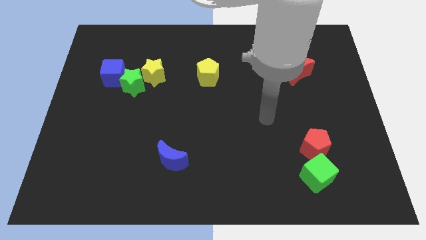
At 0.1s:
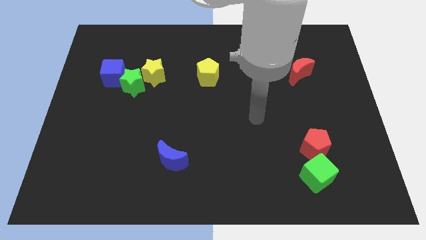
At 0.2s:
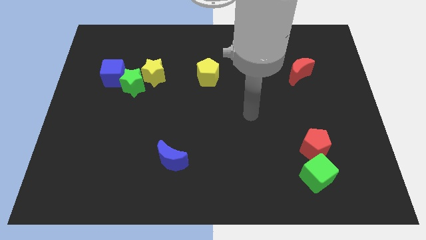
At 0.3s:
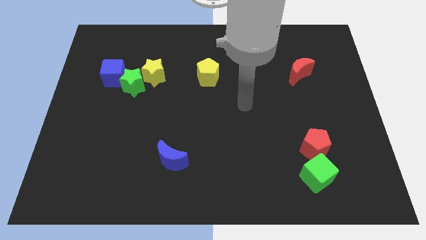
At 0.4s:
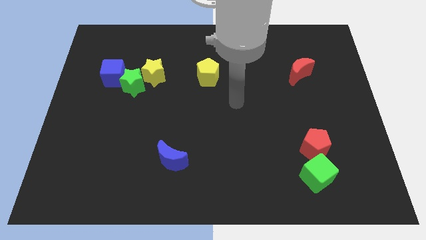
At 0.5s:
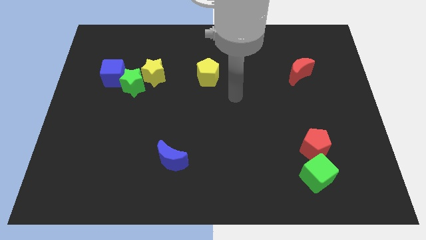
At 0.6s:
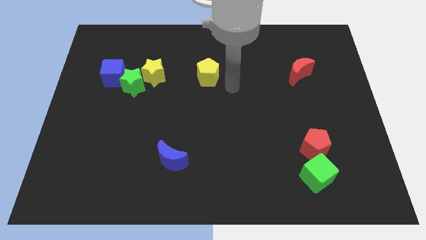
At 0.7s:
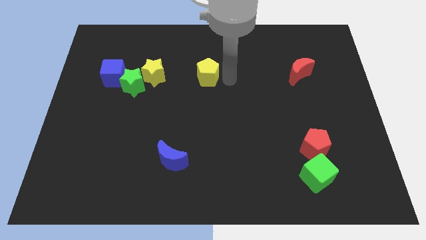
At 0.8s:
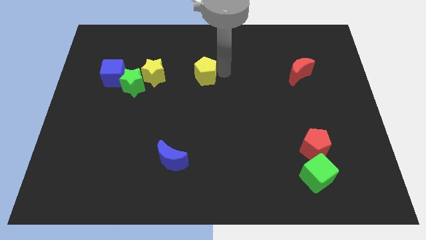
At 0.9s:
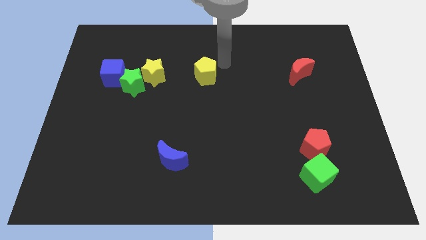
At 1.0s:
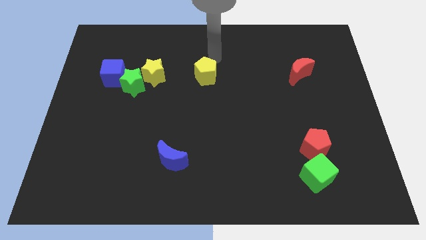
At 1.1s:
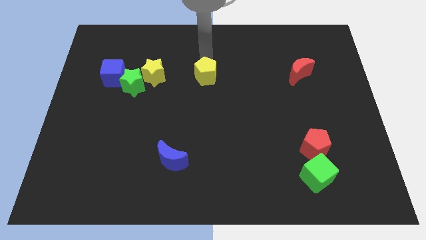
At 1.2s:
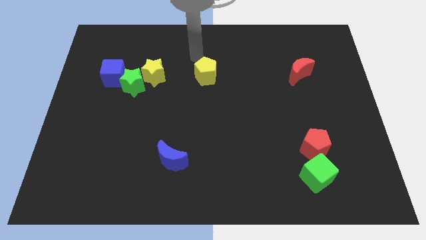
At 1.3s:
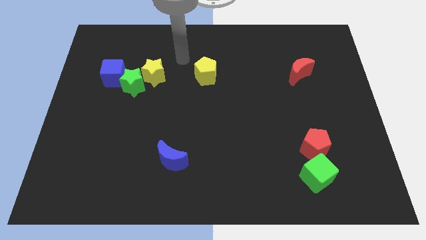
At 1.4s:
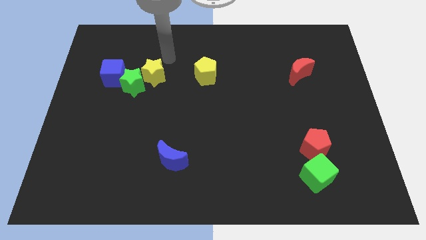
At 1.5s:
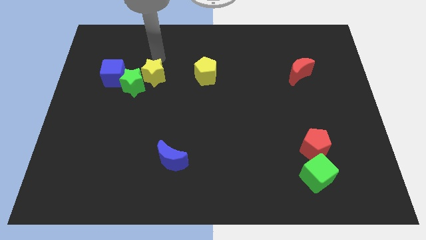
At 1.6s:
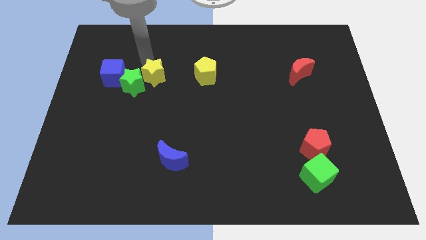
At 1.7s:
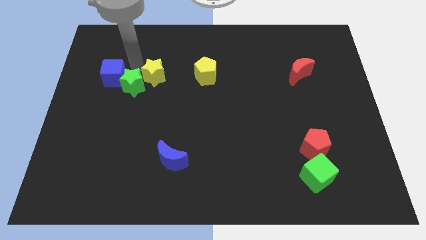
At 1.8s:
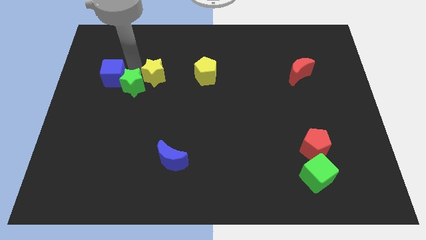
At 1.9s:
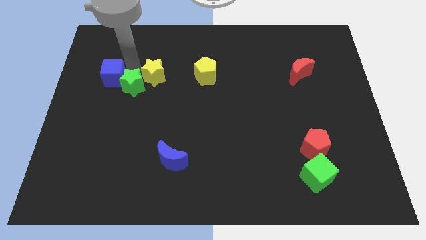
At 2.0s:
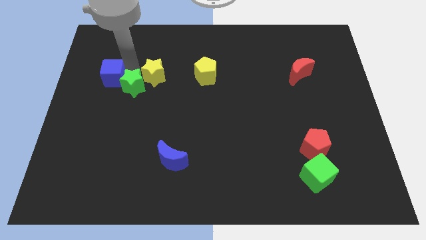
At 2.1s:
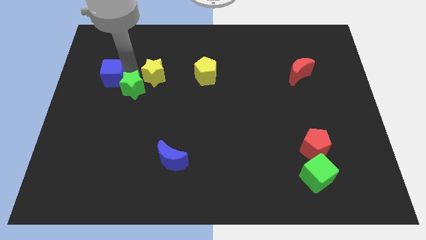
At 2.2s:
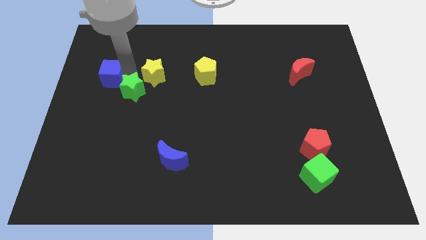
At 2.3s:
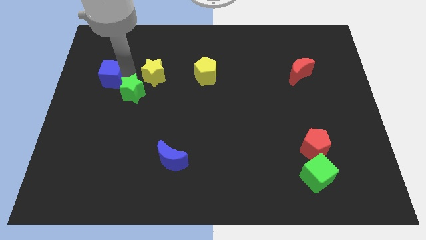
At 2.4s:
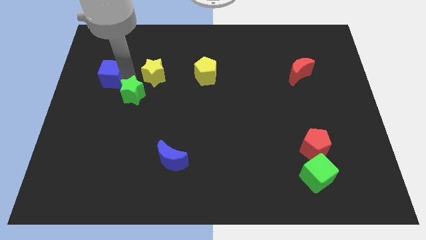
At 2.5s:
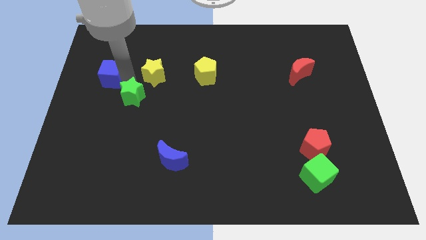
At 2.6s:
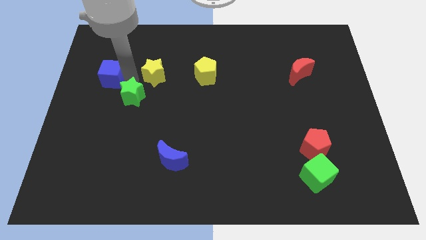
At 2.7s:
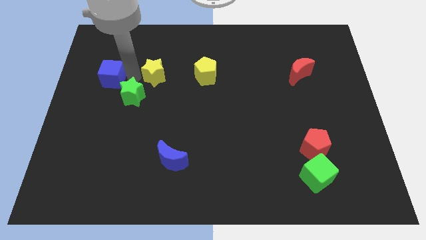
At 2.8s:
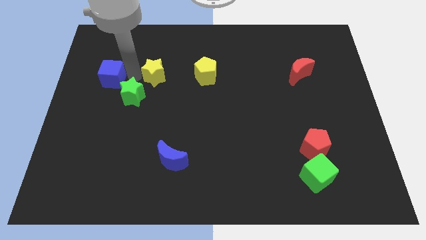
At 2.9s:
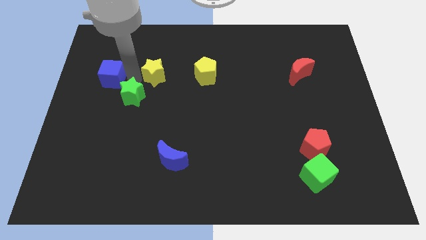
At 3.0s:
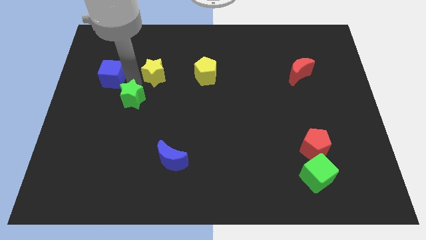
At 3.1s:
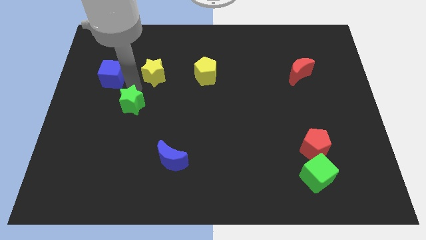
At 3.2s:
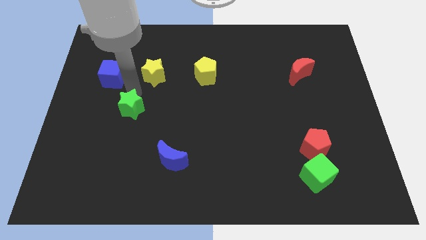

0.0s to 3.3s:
move the green star away from the yellow star and blue cube

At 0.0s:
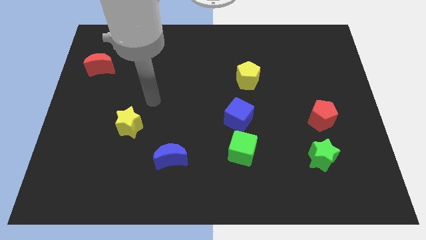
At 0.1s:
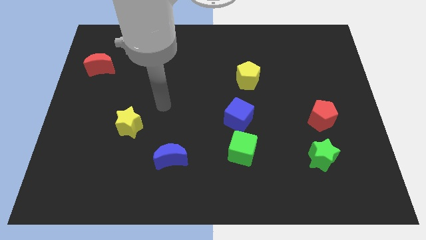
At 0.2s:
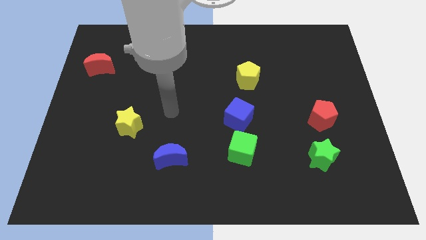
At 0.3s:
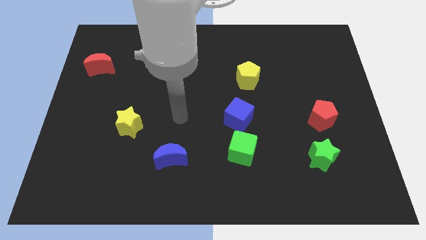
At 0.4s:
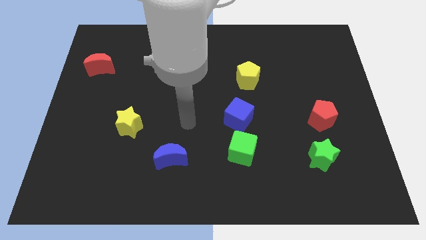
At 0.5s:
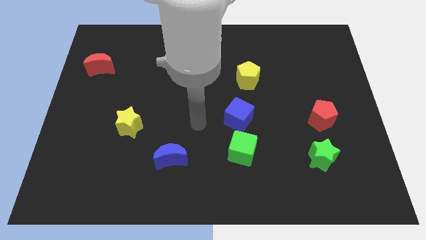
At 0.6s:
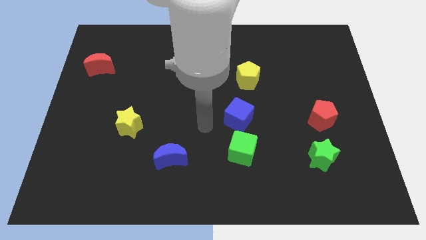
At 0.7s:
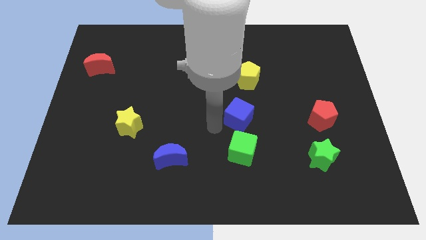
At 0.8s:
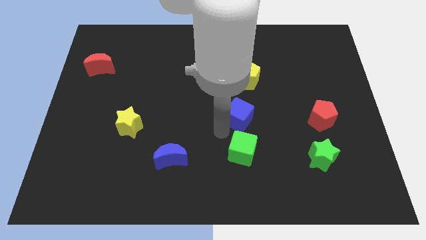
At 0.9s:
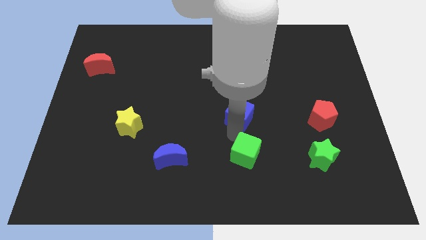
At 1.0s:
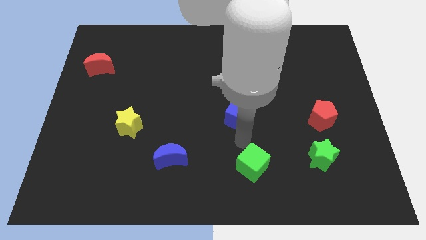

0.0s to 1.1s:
move the blue cube away from the green cube

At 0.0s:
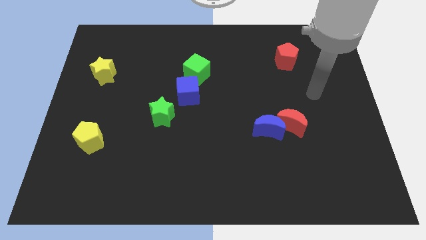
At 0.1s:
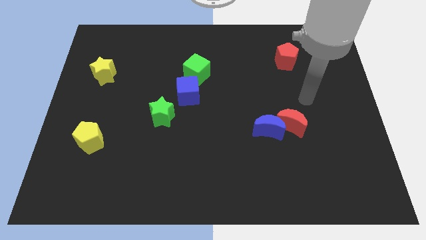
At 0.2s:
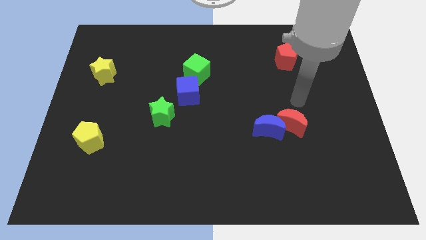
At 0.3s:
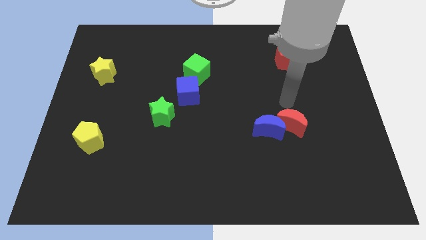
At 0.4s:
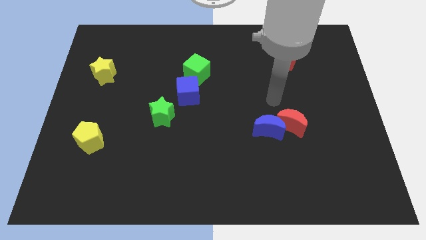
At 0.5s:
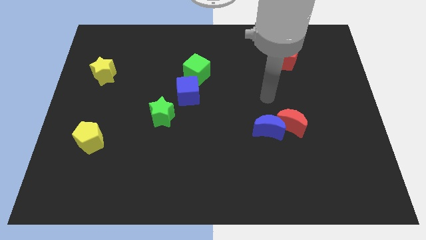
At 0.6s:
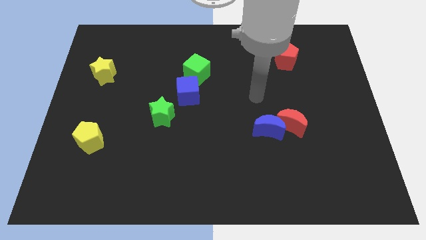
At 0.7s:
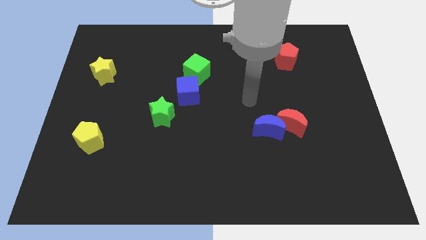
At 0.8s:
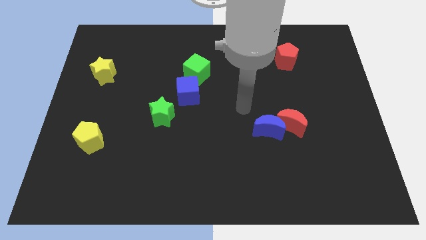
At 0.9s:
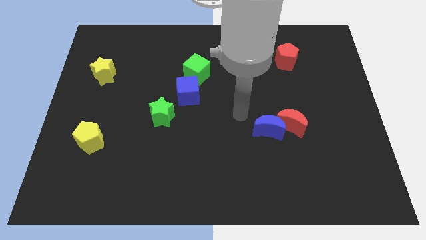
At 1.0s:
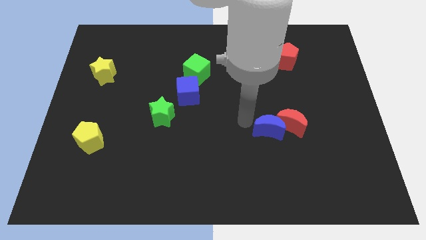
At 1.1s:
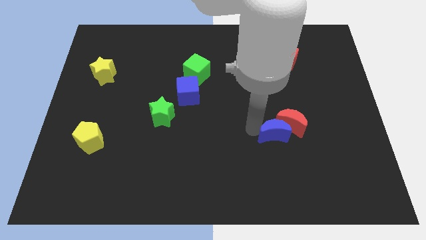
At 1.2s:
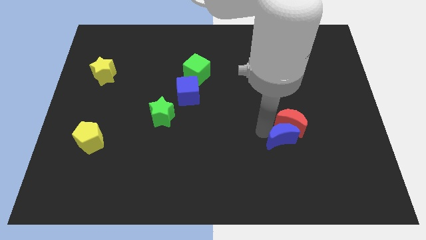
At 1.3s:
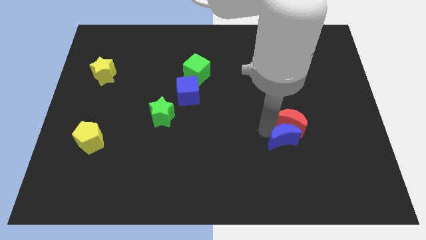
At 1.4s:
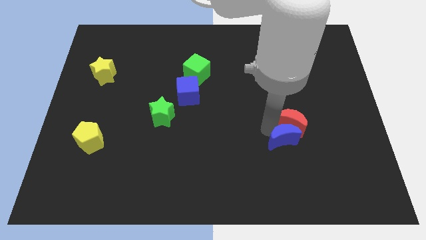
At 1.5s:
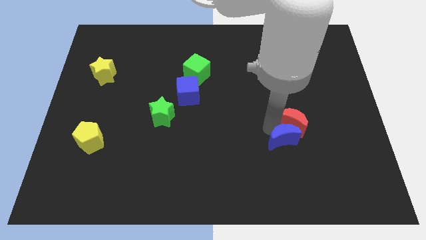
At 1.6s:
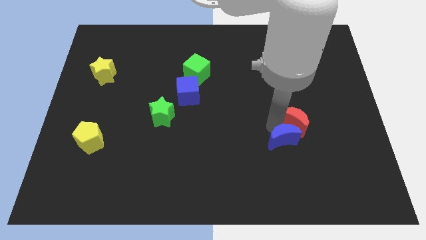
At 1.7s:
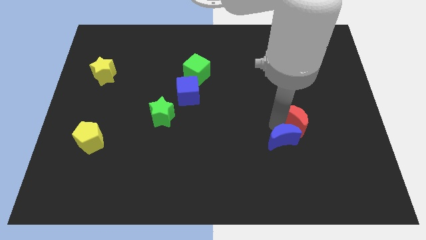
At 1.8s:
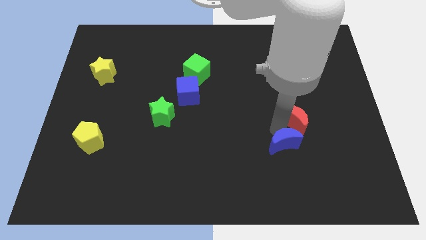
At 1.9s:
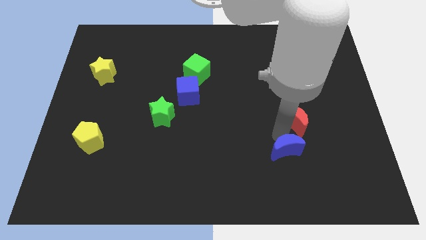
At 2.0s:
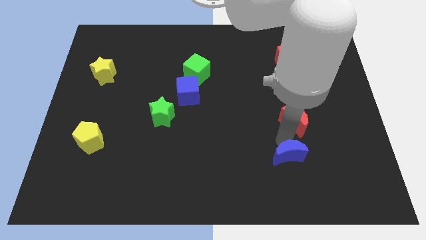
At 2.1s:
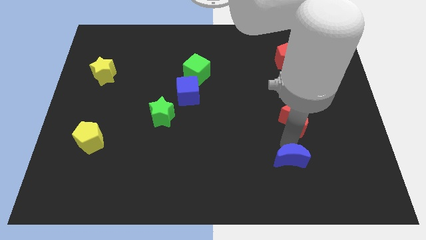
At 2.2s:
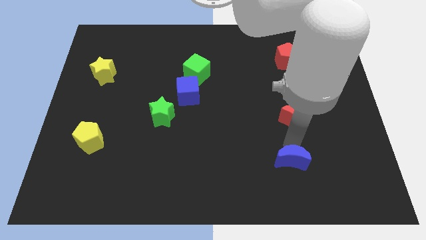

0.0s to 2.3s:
move the red moon away from the blue moon

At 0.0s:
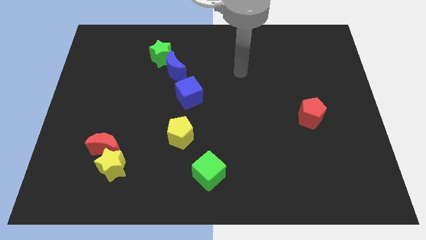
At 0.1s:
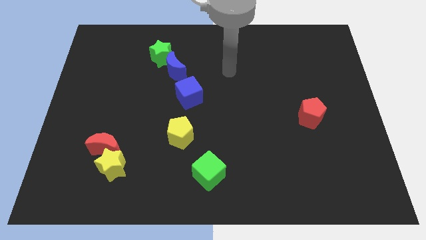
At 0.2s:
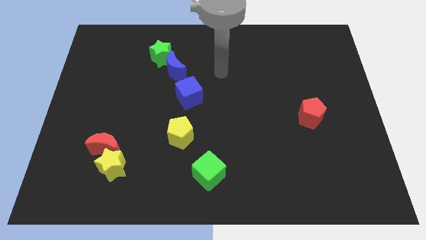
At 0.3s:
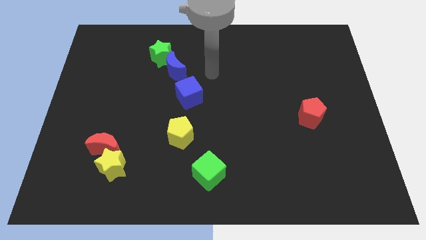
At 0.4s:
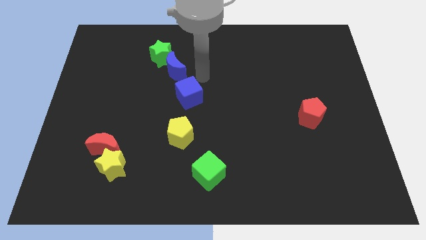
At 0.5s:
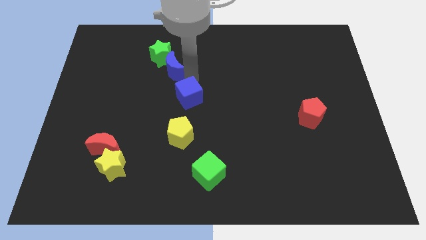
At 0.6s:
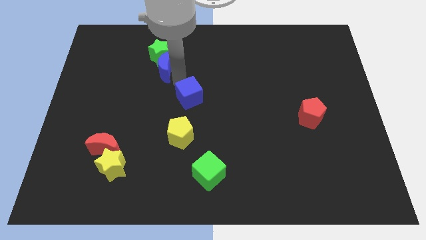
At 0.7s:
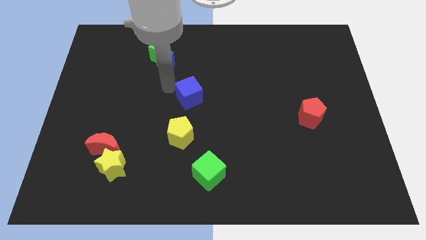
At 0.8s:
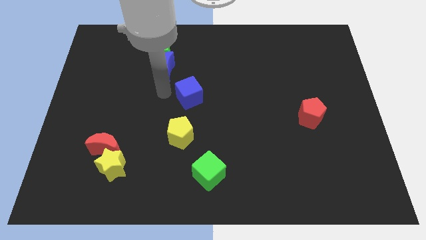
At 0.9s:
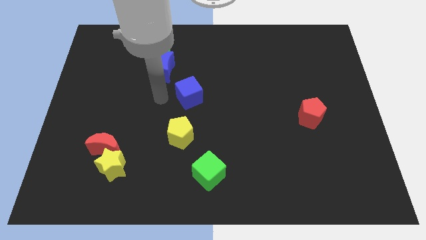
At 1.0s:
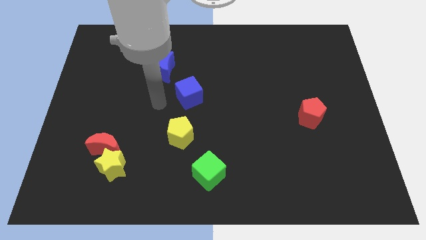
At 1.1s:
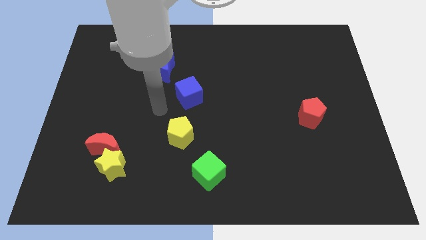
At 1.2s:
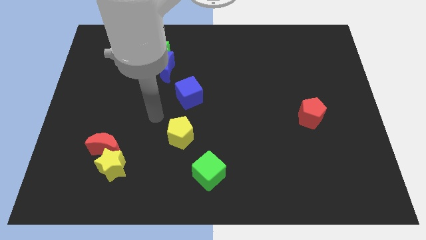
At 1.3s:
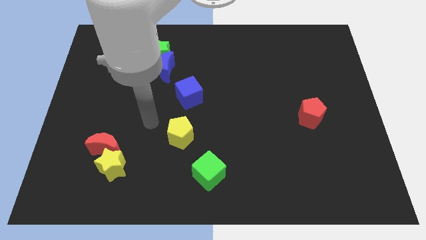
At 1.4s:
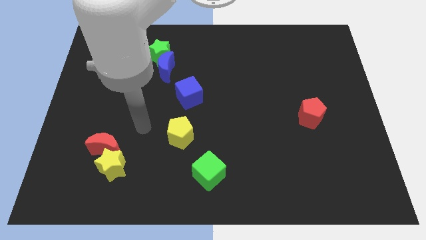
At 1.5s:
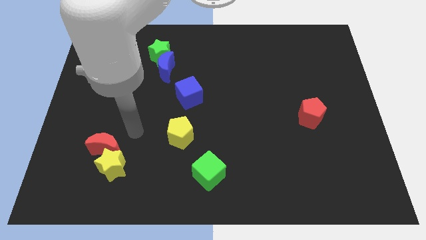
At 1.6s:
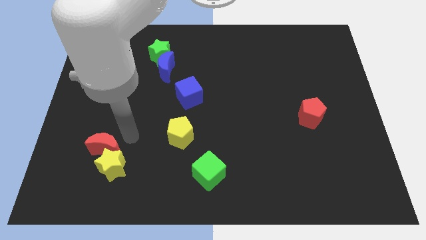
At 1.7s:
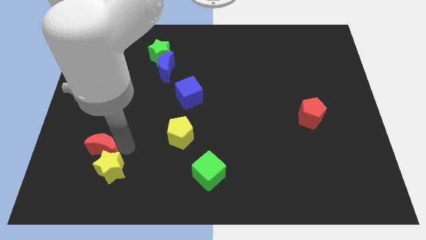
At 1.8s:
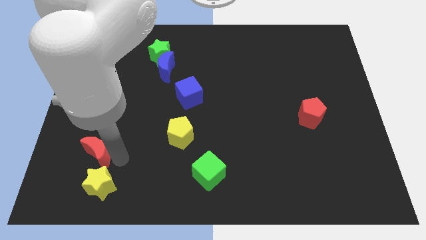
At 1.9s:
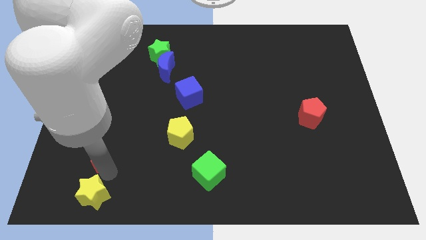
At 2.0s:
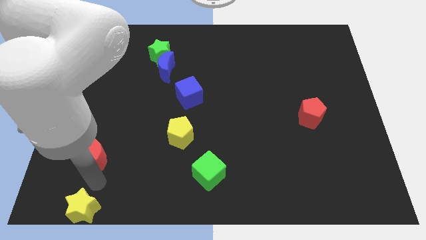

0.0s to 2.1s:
separate the red moon from the yellow star

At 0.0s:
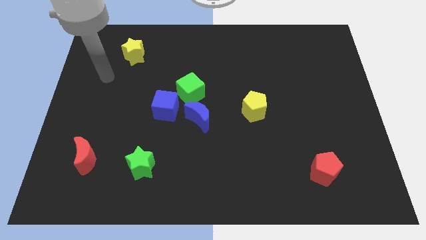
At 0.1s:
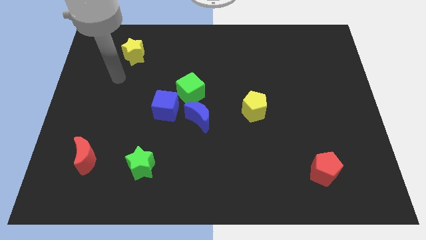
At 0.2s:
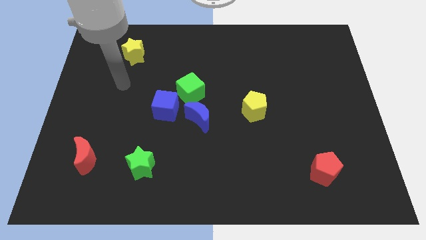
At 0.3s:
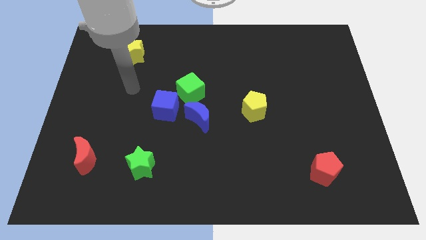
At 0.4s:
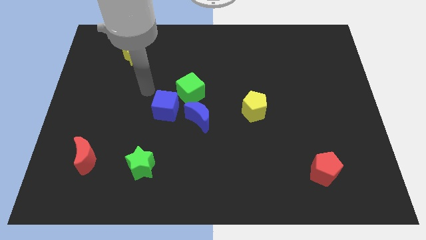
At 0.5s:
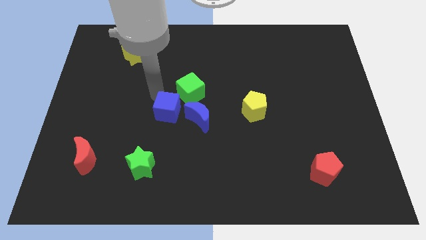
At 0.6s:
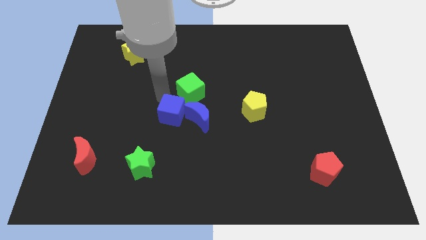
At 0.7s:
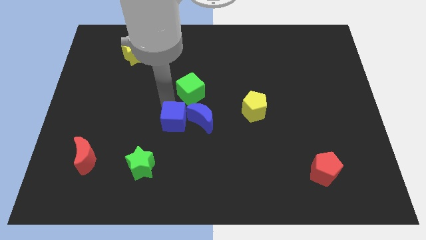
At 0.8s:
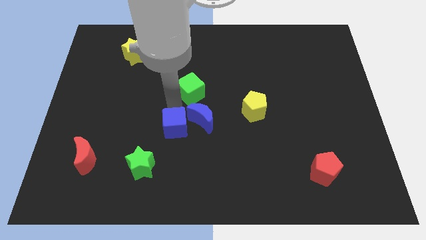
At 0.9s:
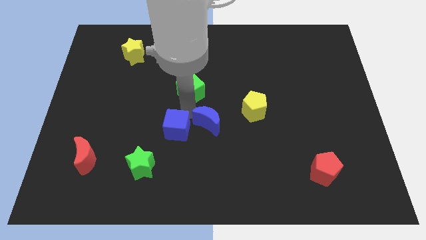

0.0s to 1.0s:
pull the green cube apart from the blue cube and blue moon
